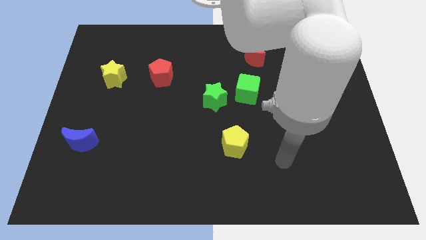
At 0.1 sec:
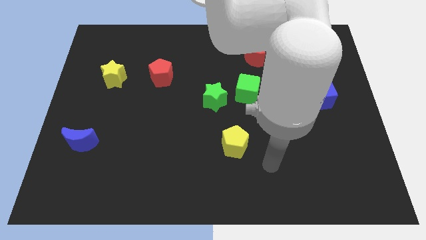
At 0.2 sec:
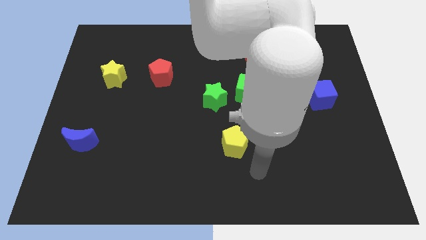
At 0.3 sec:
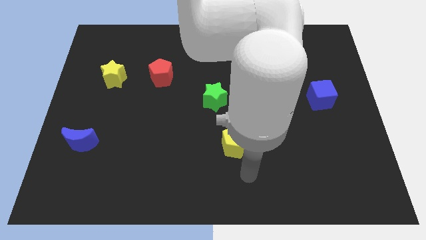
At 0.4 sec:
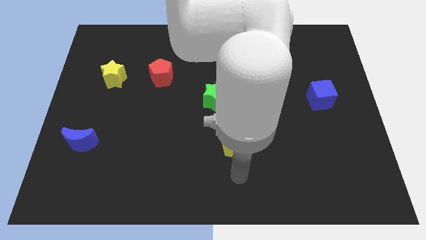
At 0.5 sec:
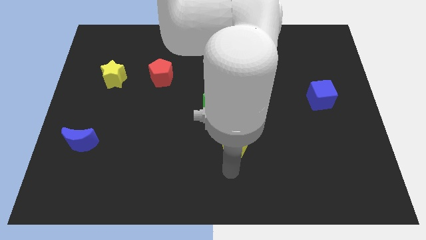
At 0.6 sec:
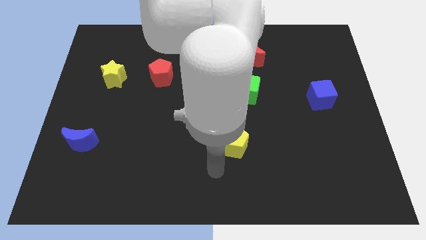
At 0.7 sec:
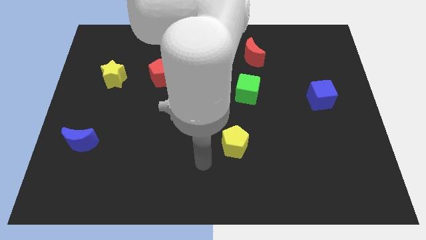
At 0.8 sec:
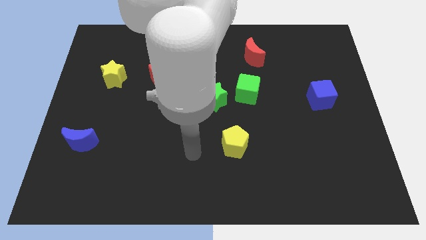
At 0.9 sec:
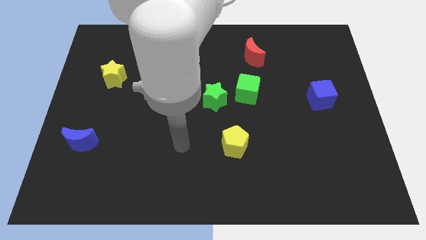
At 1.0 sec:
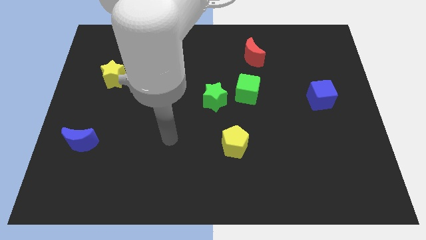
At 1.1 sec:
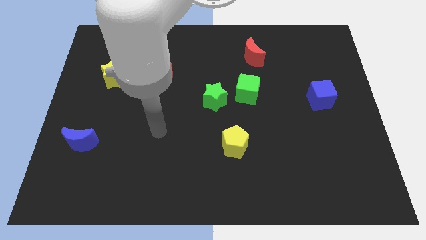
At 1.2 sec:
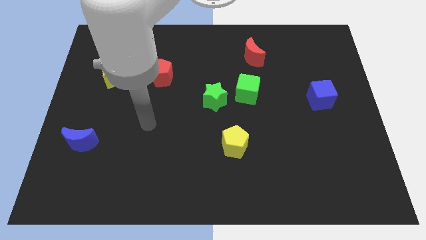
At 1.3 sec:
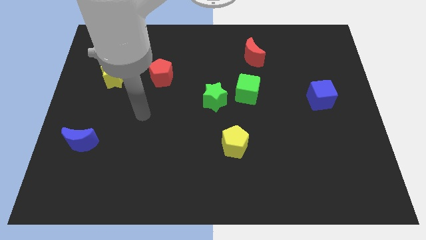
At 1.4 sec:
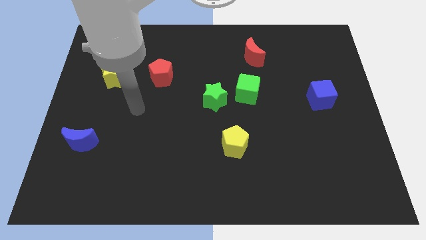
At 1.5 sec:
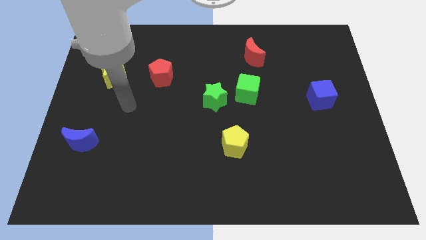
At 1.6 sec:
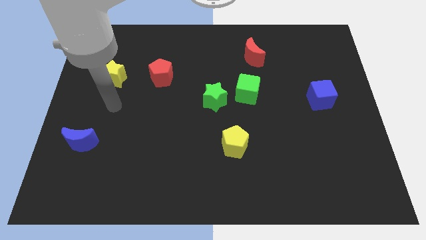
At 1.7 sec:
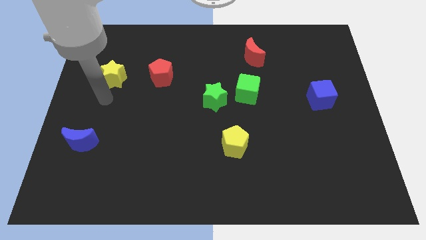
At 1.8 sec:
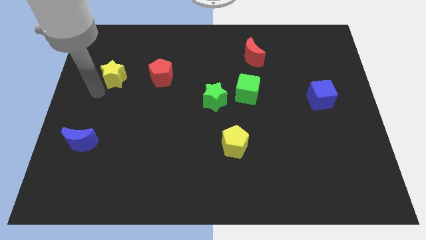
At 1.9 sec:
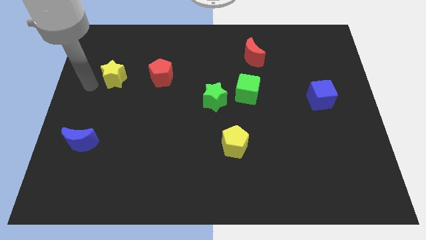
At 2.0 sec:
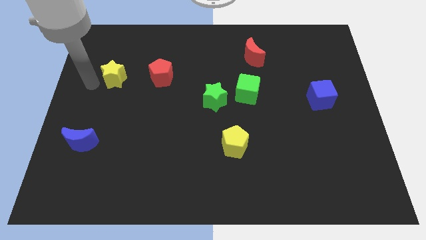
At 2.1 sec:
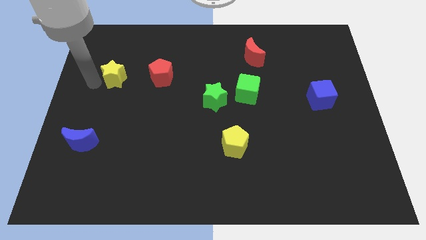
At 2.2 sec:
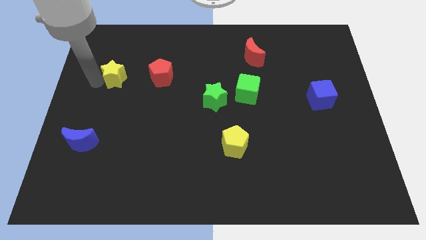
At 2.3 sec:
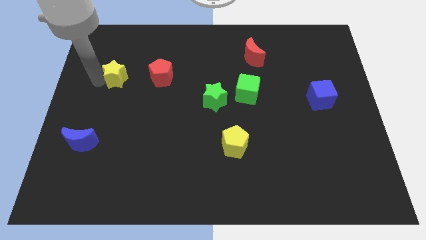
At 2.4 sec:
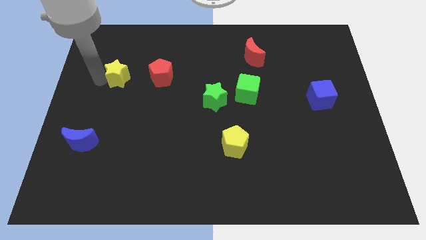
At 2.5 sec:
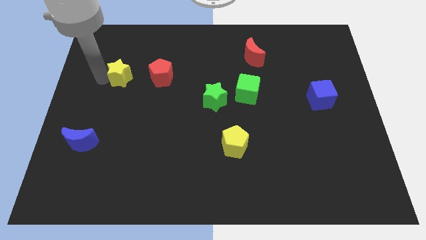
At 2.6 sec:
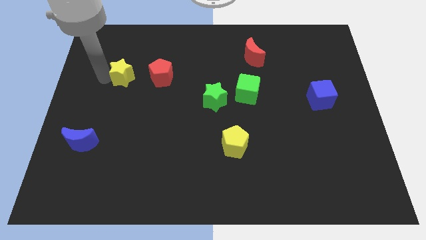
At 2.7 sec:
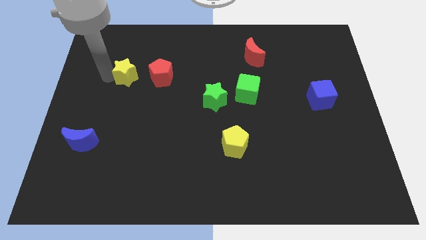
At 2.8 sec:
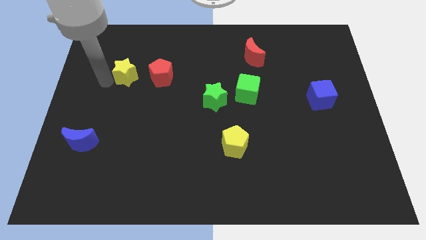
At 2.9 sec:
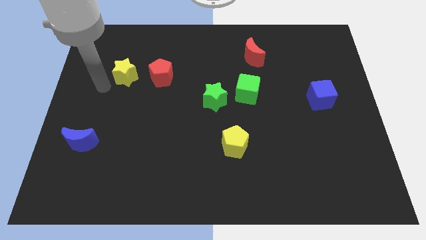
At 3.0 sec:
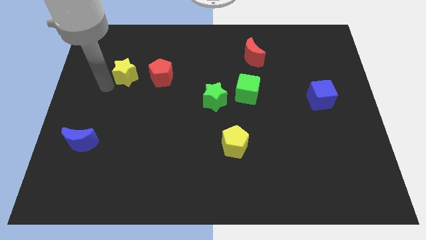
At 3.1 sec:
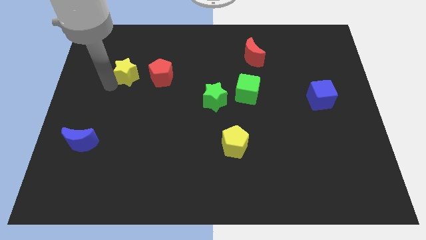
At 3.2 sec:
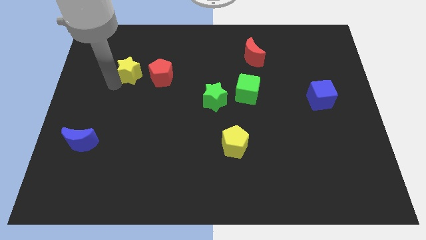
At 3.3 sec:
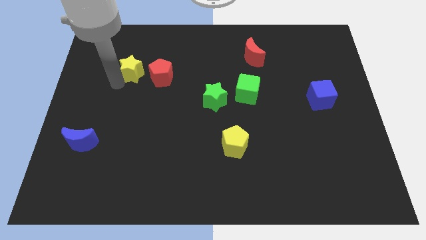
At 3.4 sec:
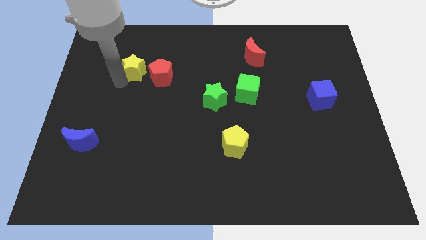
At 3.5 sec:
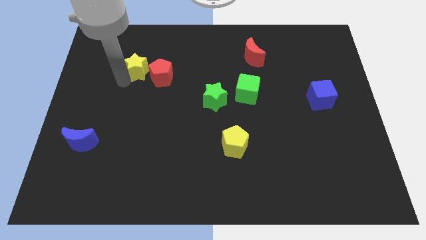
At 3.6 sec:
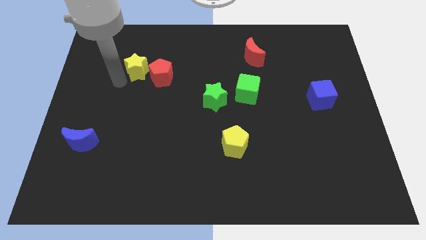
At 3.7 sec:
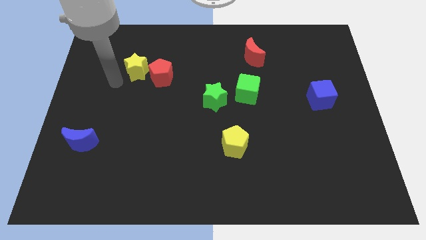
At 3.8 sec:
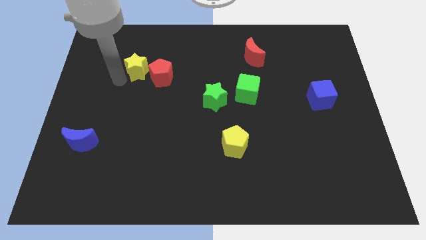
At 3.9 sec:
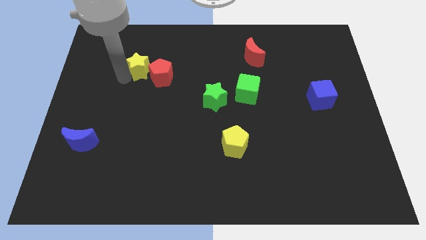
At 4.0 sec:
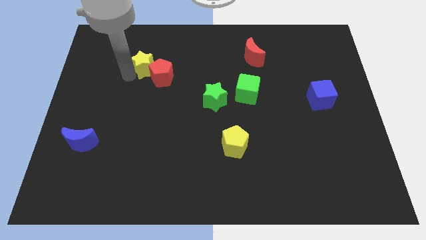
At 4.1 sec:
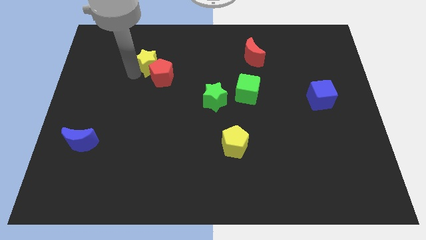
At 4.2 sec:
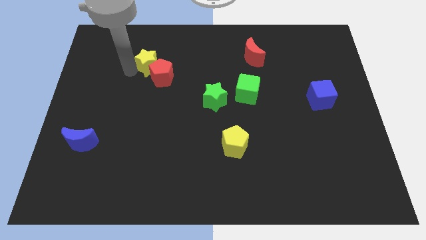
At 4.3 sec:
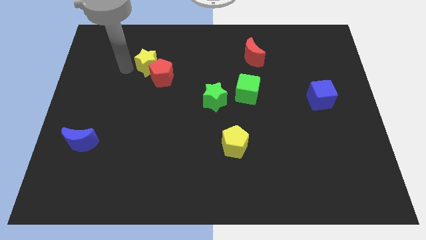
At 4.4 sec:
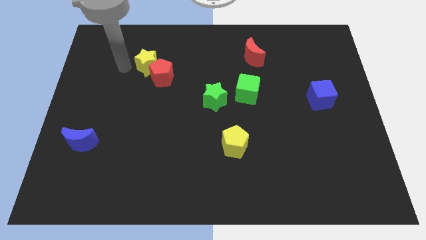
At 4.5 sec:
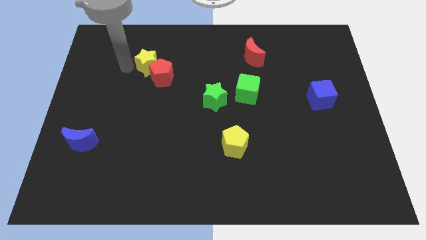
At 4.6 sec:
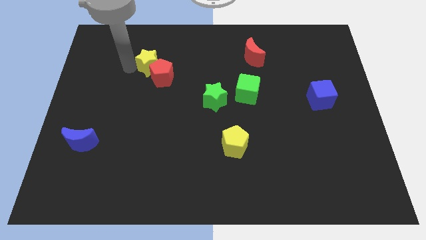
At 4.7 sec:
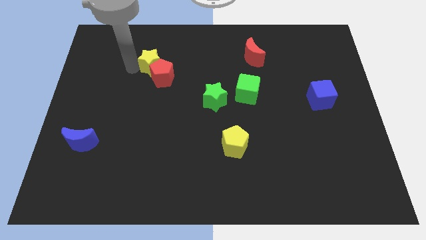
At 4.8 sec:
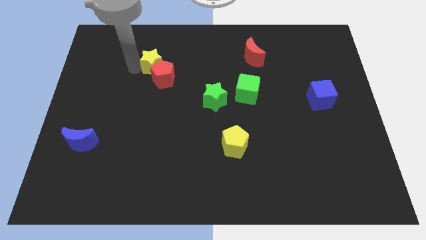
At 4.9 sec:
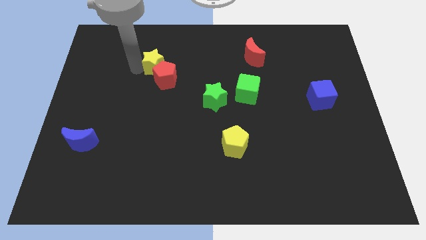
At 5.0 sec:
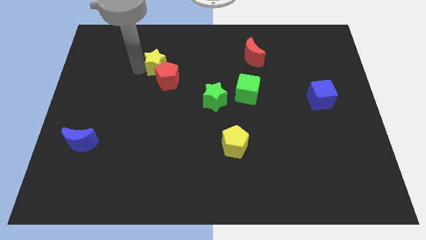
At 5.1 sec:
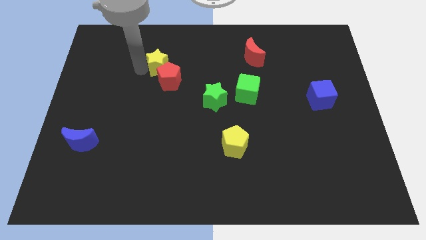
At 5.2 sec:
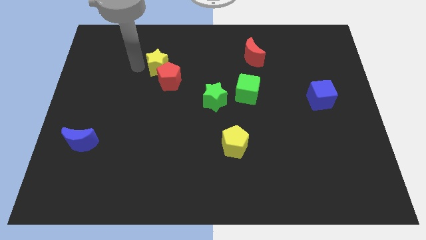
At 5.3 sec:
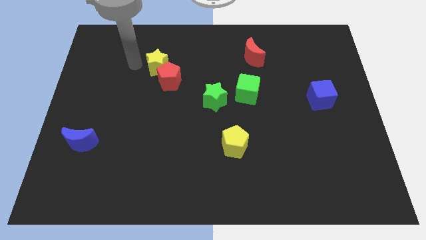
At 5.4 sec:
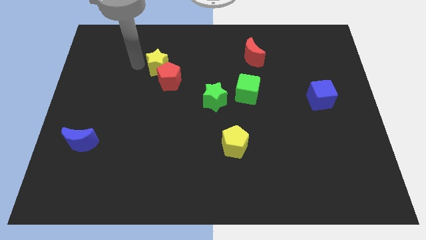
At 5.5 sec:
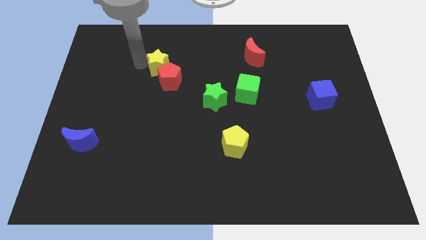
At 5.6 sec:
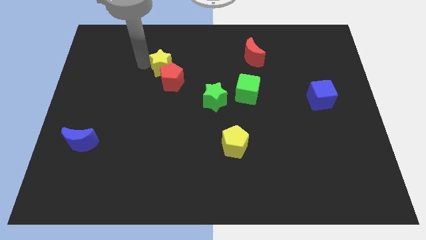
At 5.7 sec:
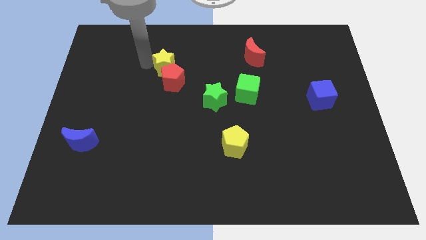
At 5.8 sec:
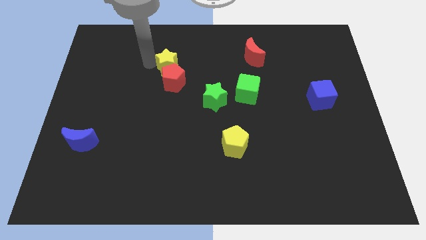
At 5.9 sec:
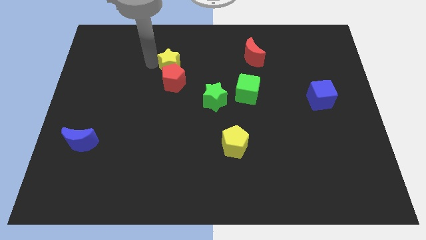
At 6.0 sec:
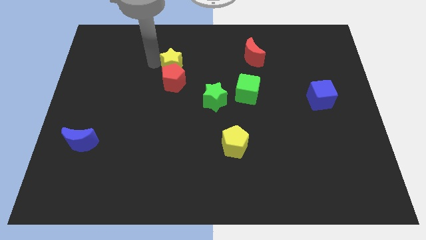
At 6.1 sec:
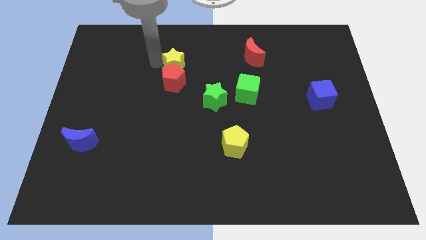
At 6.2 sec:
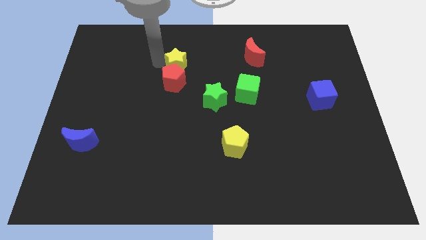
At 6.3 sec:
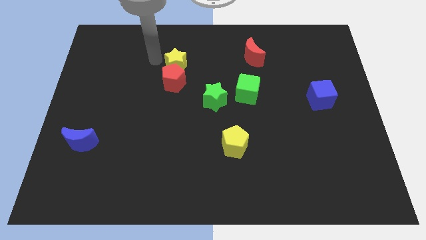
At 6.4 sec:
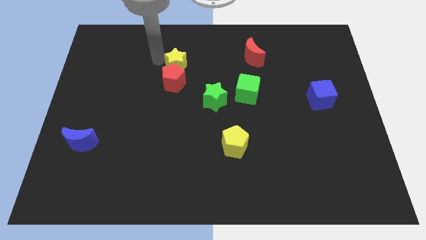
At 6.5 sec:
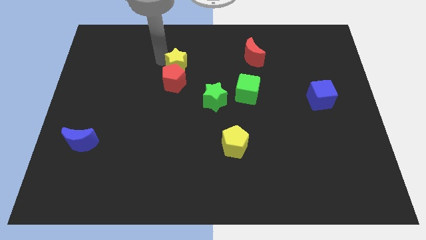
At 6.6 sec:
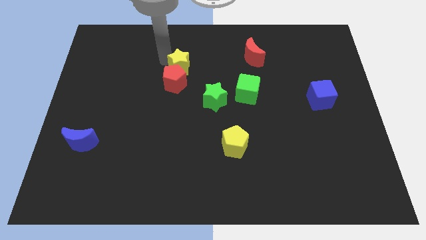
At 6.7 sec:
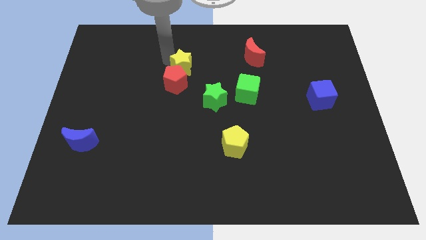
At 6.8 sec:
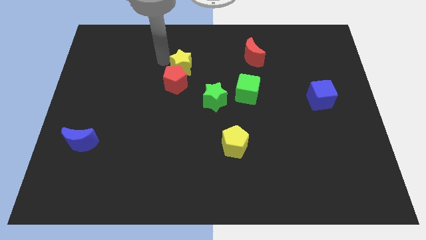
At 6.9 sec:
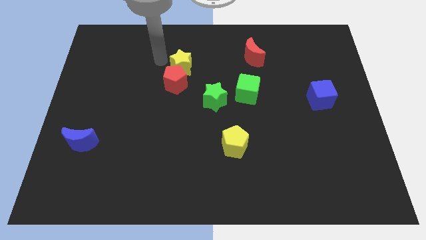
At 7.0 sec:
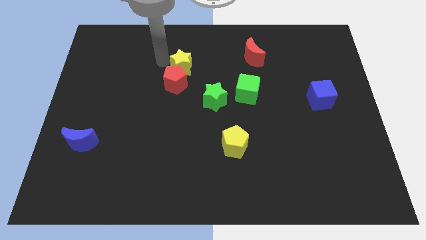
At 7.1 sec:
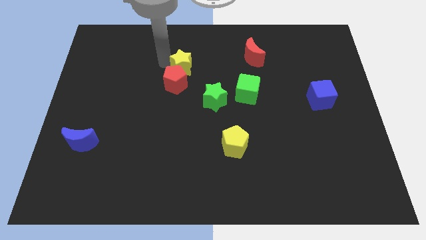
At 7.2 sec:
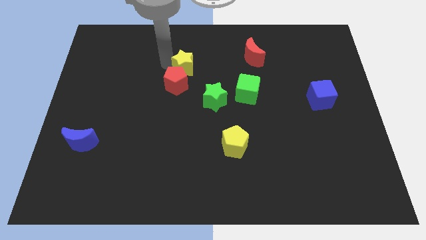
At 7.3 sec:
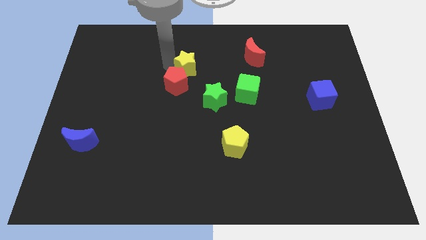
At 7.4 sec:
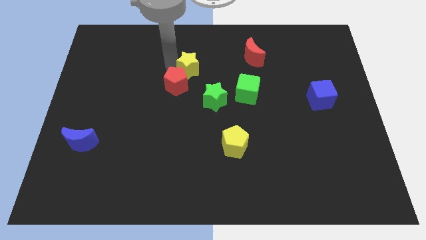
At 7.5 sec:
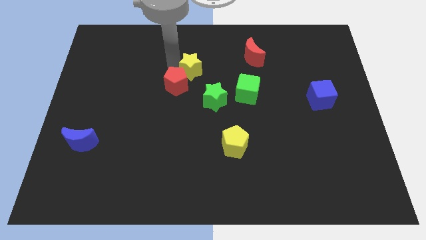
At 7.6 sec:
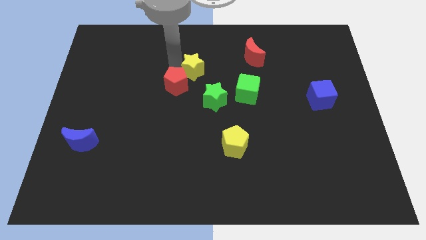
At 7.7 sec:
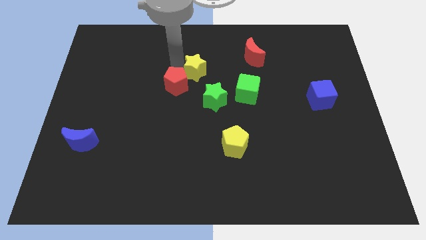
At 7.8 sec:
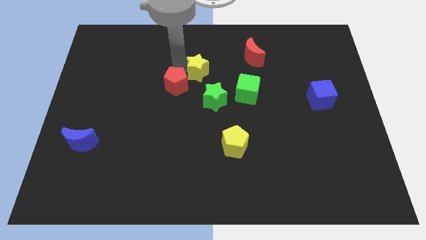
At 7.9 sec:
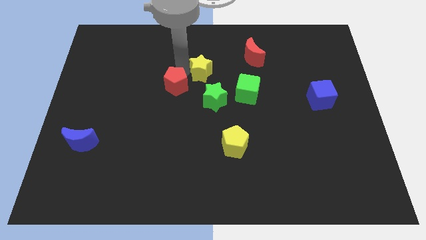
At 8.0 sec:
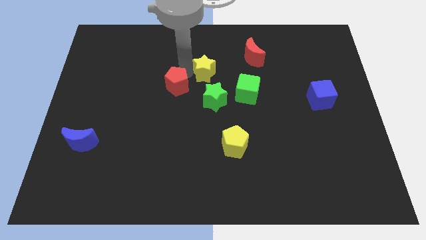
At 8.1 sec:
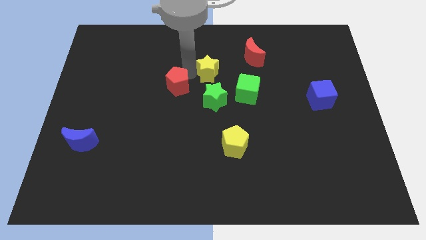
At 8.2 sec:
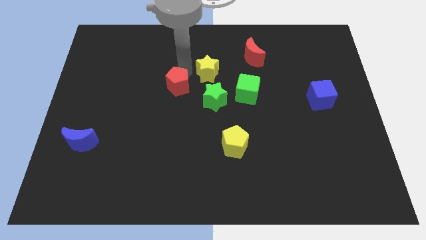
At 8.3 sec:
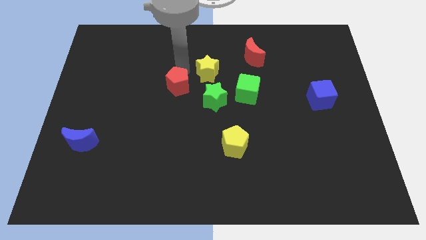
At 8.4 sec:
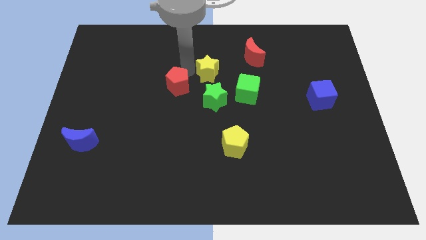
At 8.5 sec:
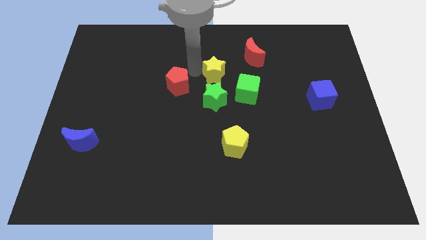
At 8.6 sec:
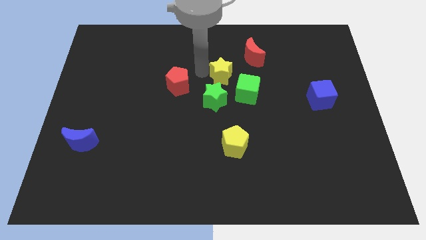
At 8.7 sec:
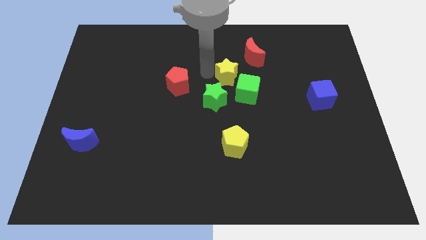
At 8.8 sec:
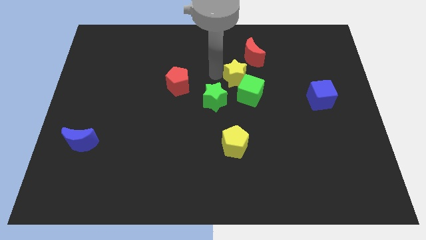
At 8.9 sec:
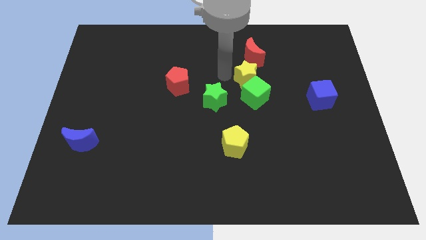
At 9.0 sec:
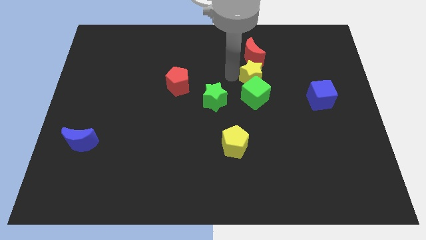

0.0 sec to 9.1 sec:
slide the yellow star to the top right side of the green cube
